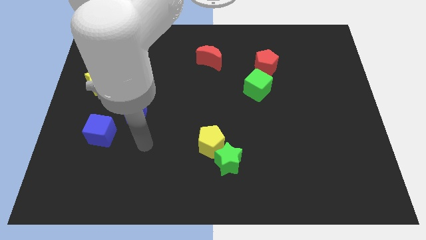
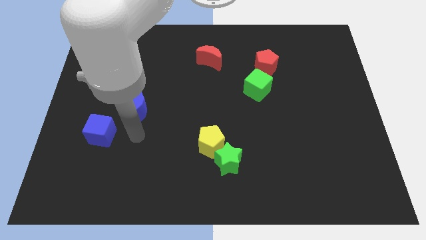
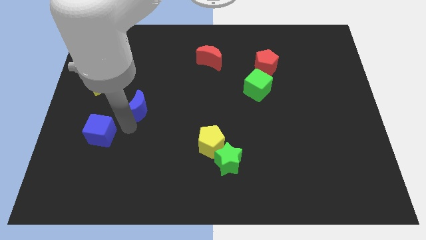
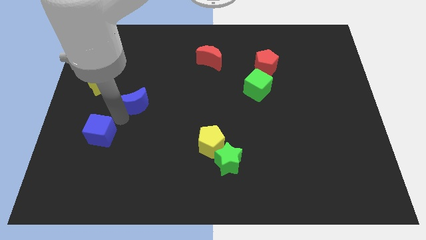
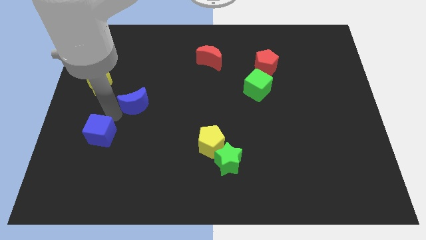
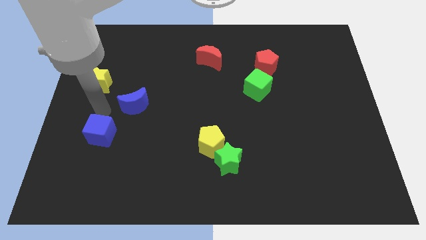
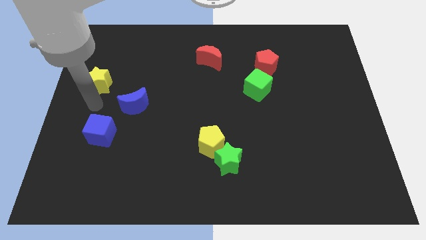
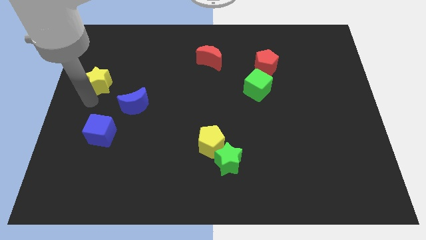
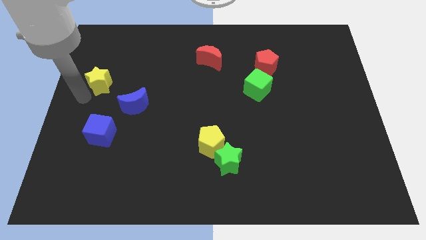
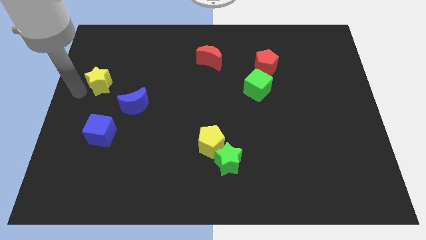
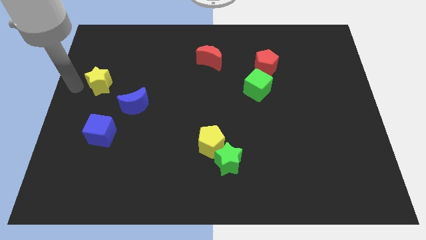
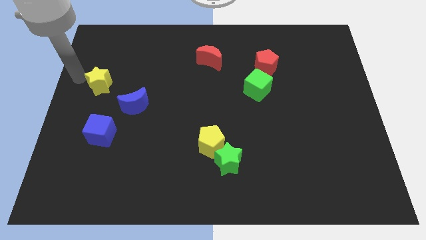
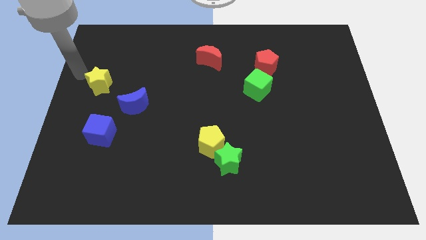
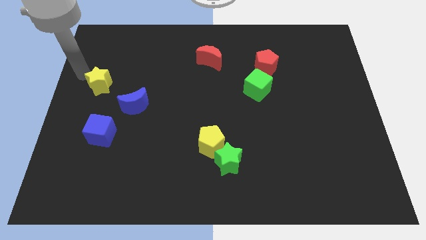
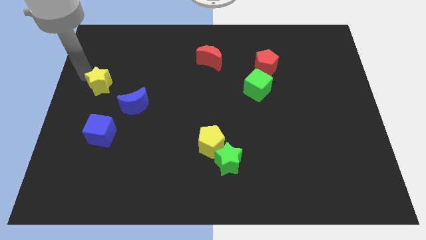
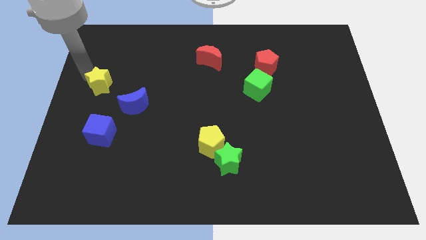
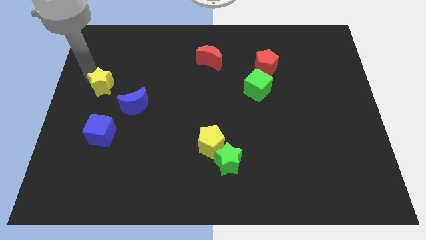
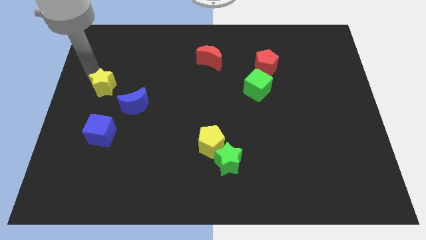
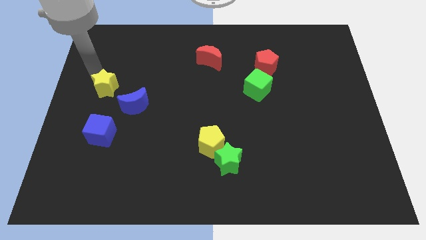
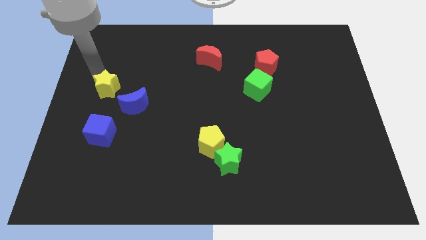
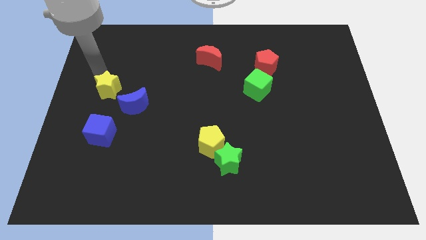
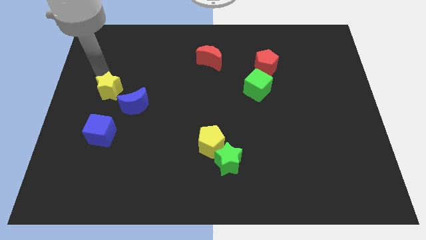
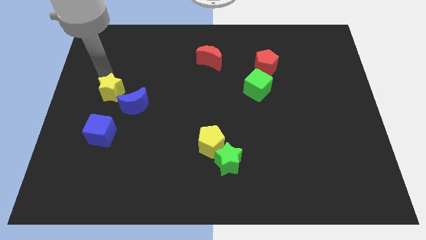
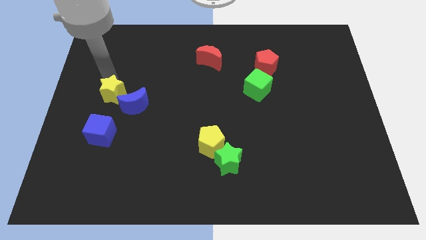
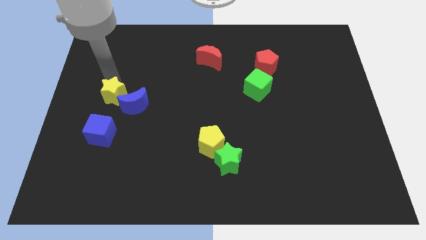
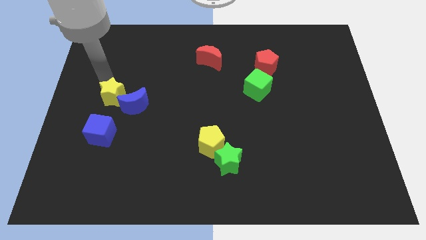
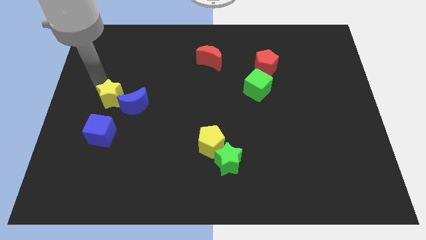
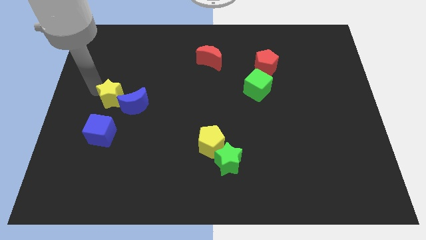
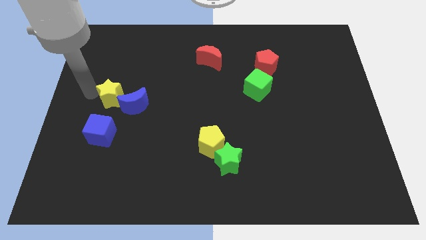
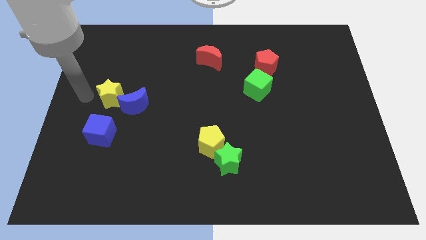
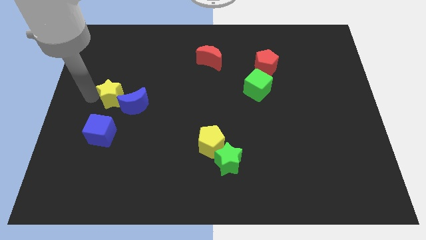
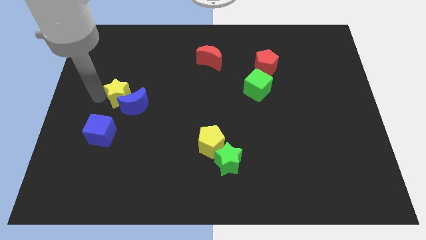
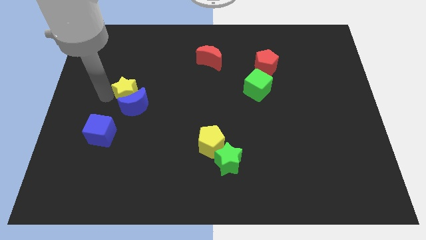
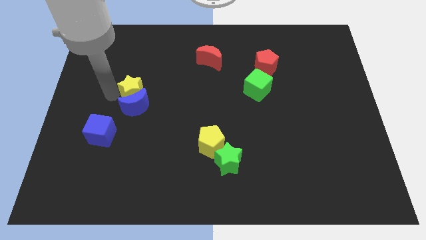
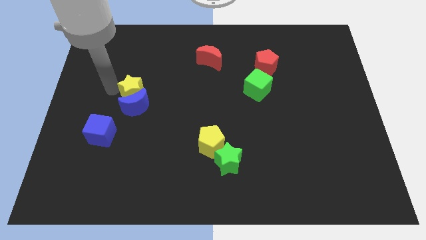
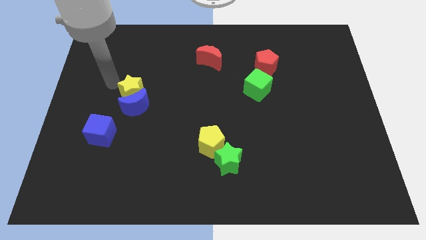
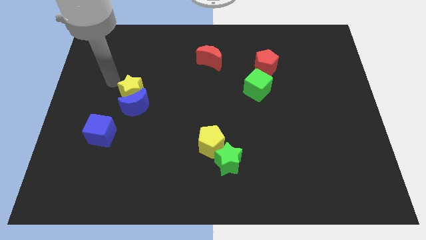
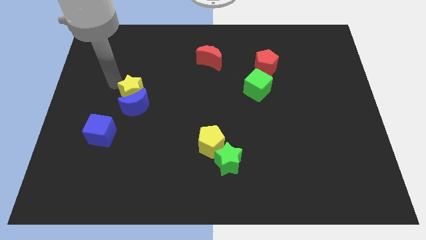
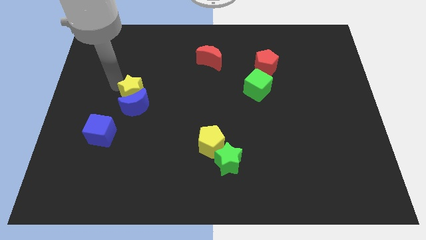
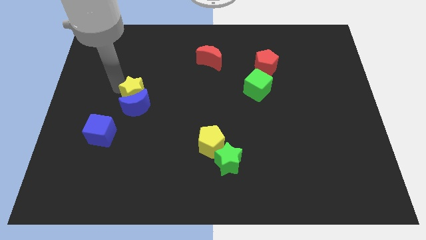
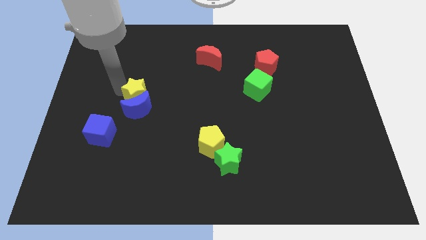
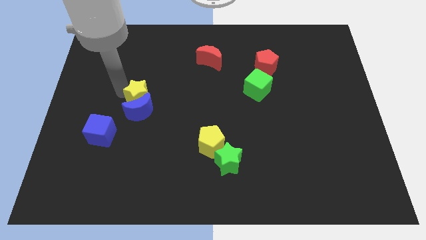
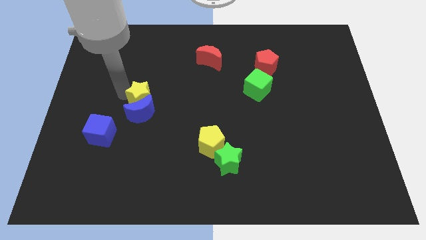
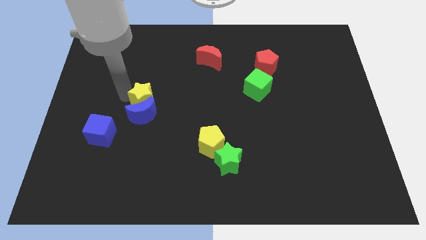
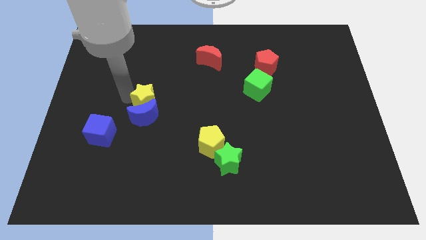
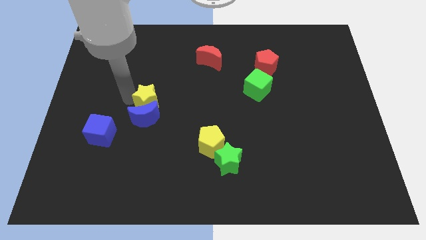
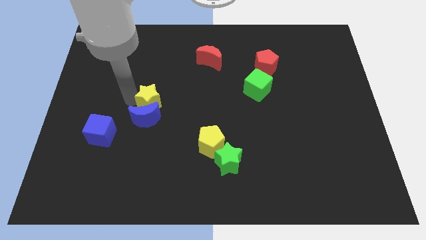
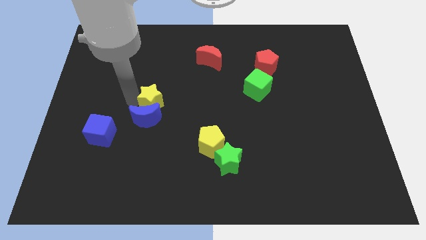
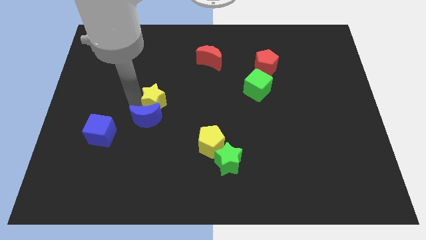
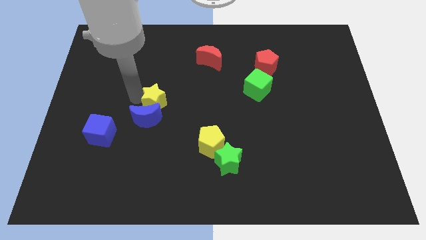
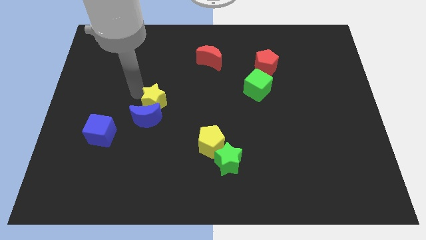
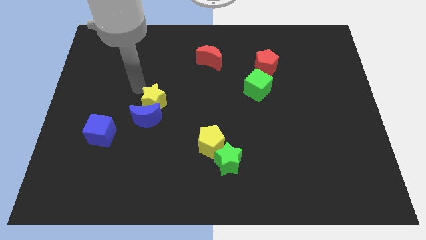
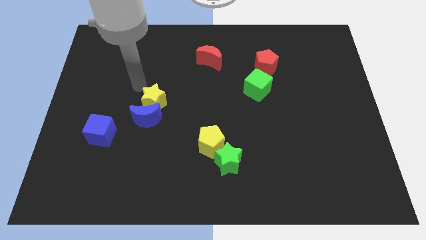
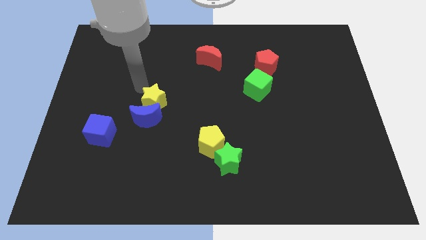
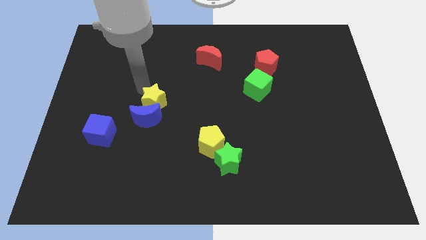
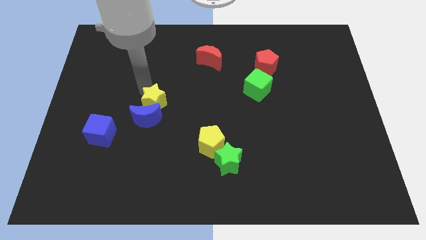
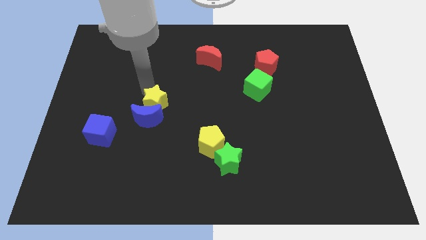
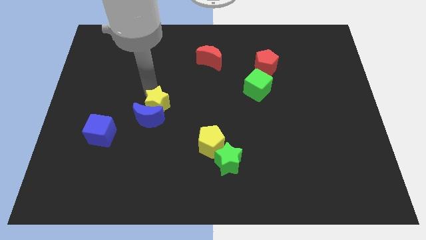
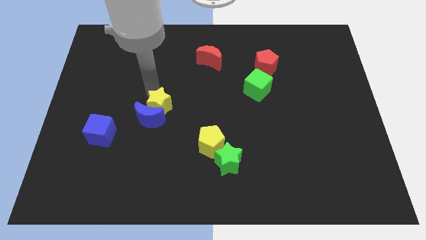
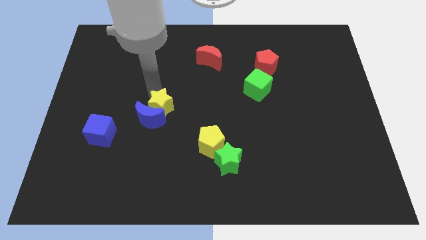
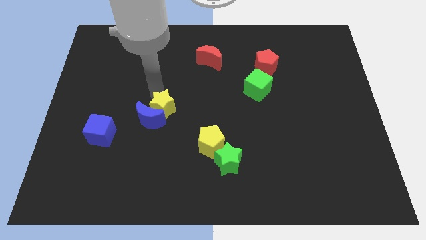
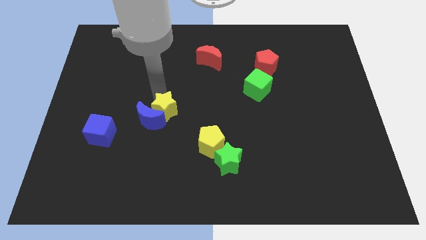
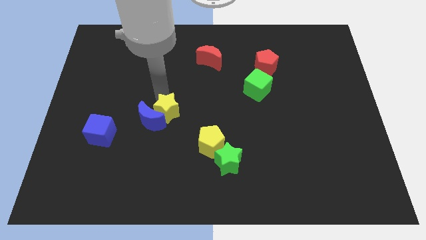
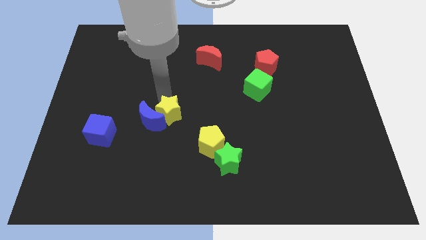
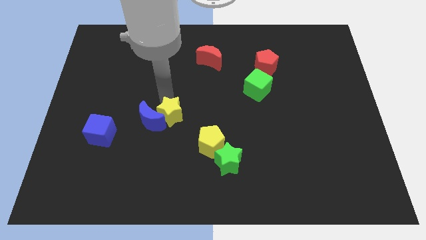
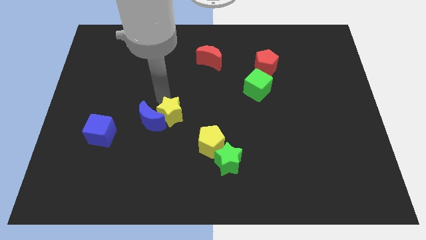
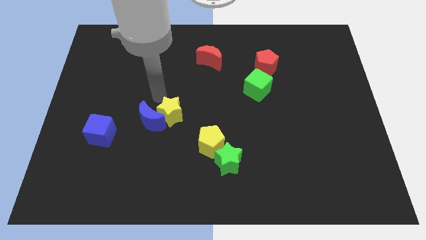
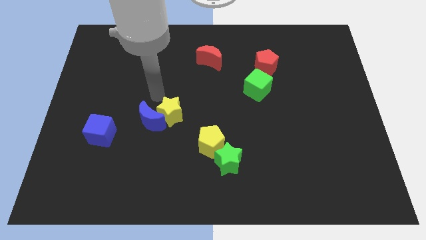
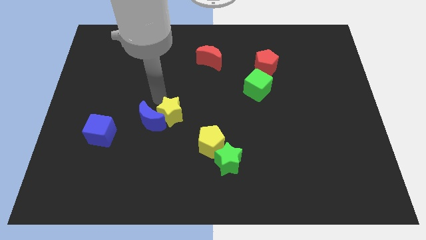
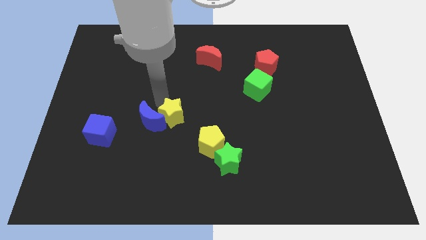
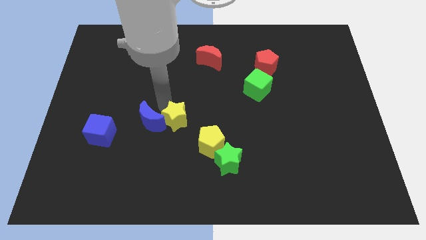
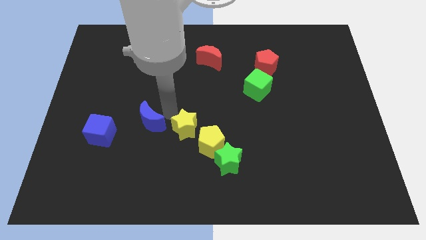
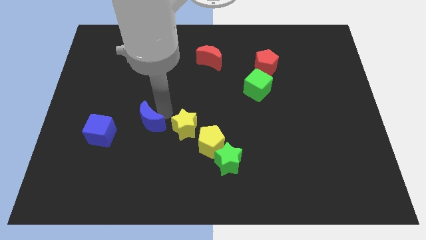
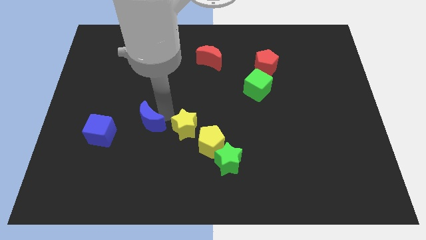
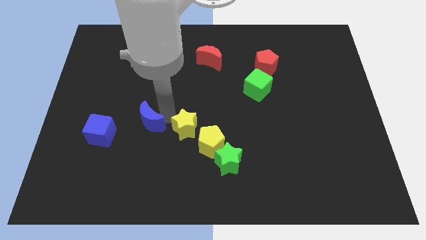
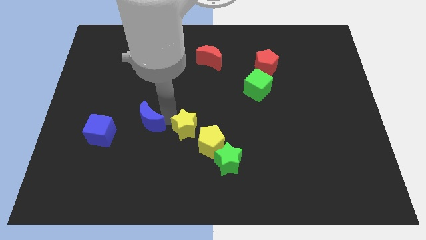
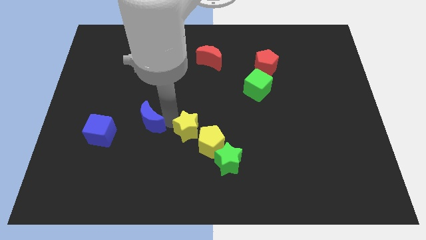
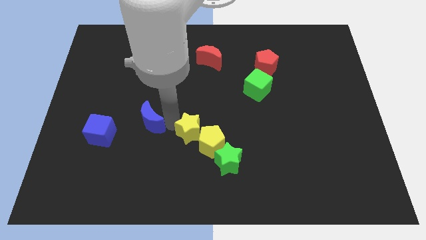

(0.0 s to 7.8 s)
put the yellow star next to the yellow pentagon
